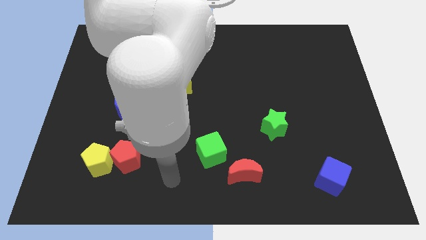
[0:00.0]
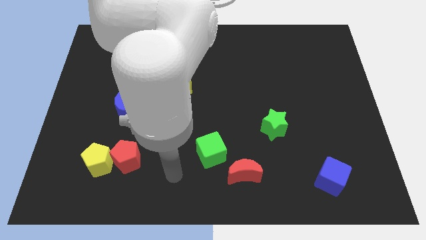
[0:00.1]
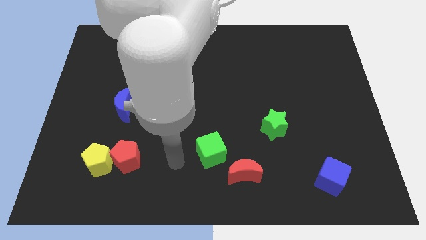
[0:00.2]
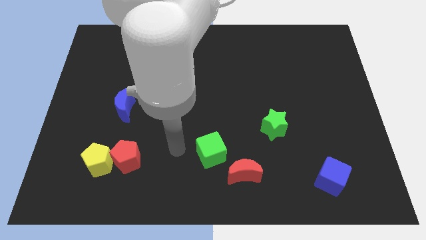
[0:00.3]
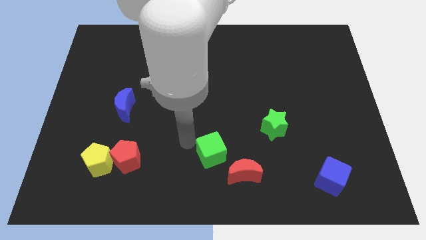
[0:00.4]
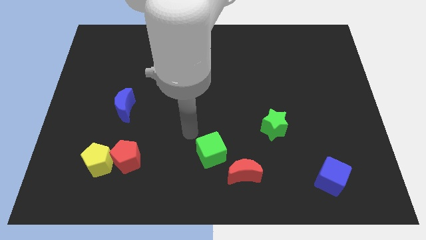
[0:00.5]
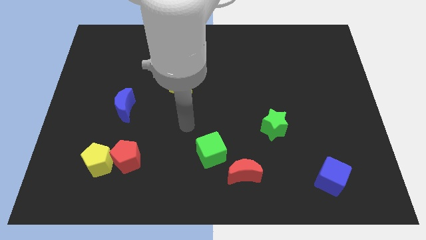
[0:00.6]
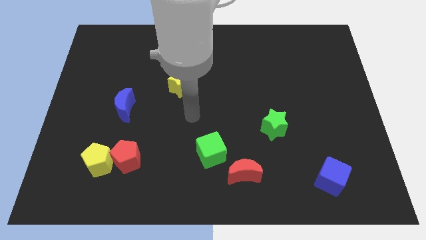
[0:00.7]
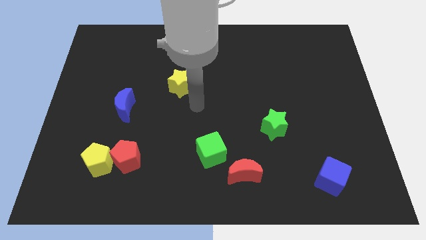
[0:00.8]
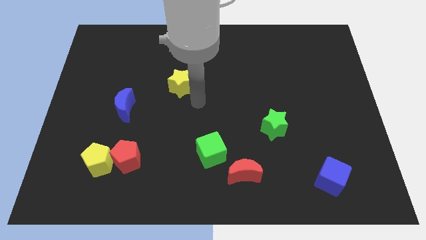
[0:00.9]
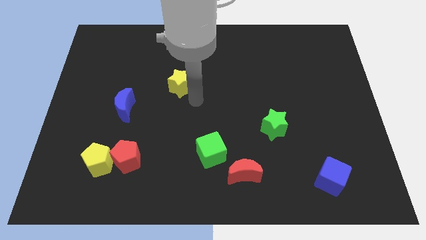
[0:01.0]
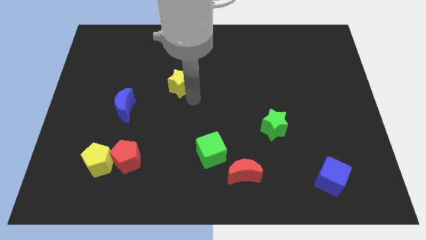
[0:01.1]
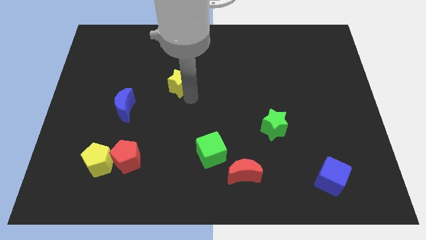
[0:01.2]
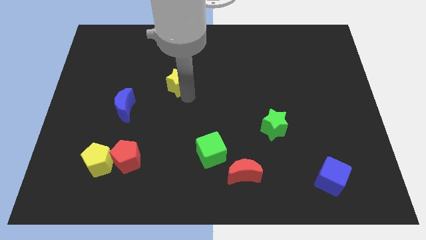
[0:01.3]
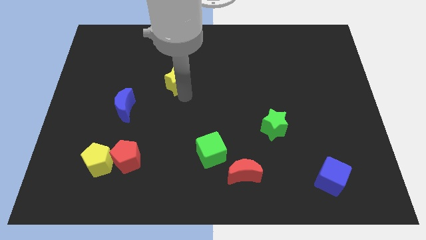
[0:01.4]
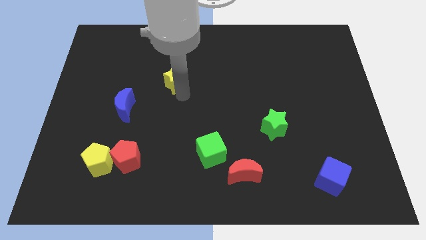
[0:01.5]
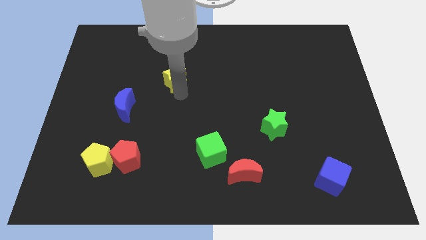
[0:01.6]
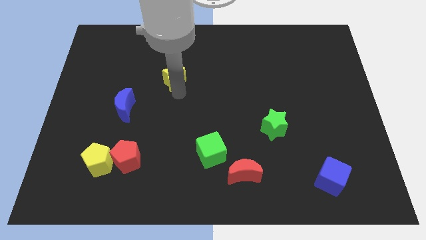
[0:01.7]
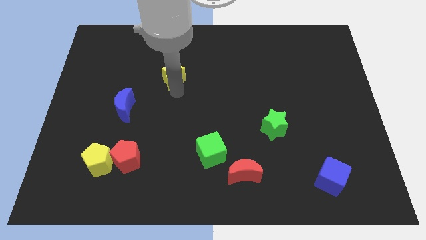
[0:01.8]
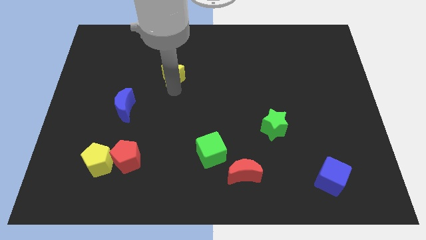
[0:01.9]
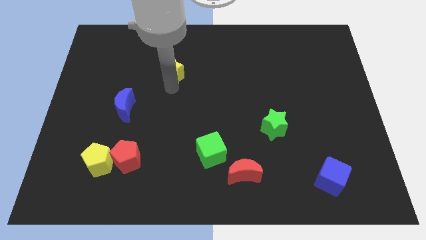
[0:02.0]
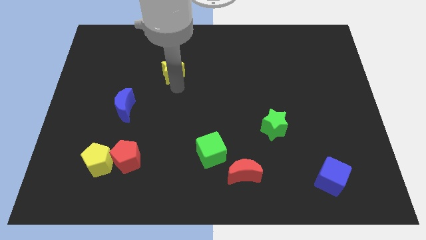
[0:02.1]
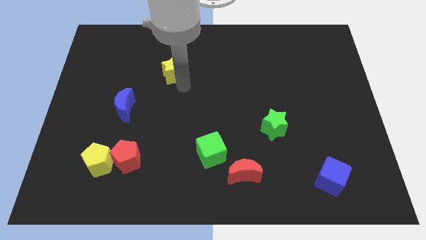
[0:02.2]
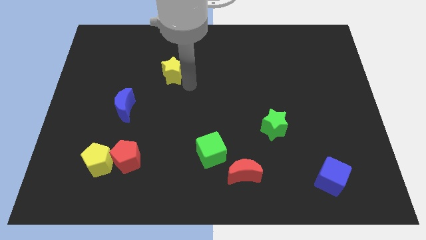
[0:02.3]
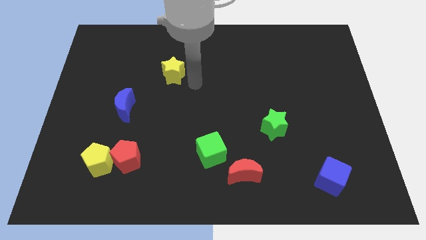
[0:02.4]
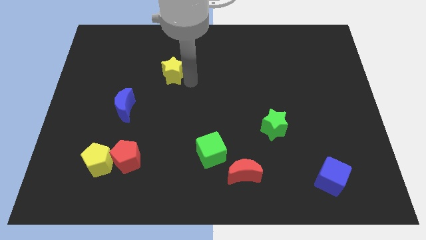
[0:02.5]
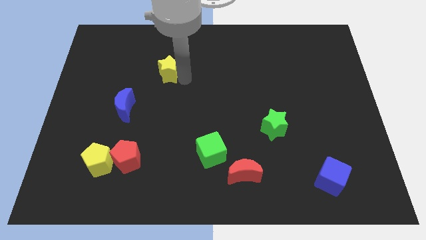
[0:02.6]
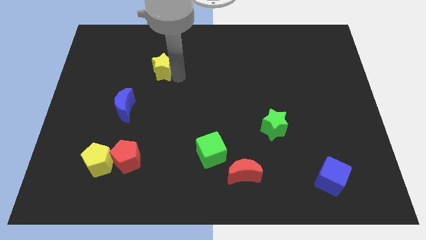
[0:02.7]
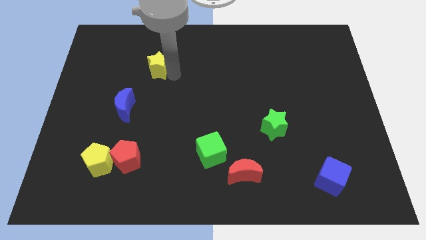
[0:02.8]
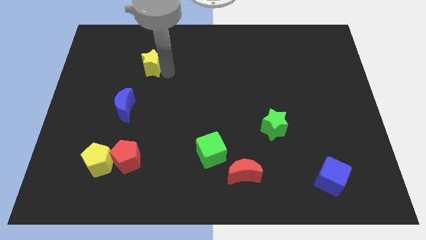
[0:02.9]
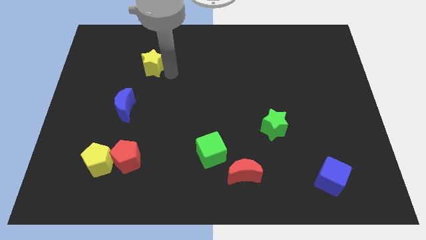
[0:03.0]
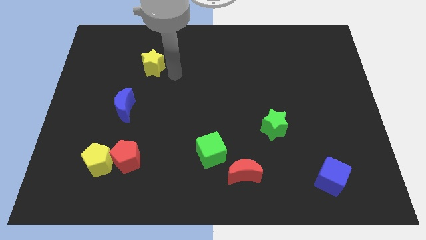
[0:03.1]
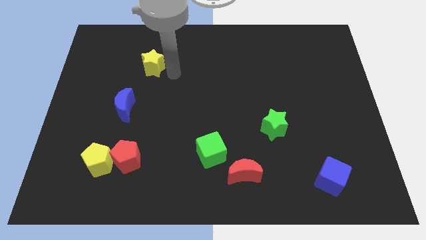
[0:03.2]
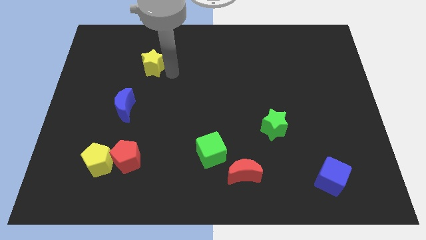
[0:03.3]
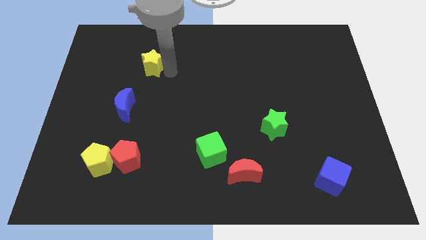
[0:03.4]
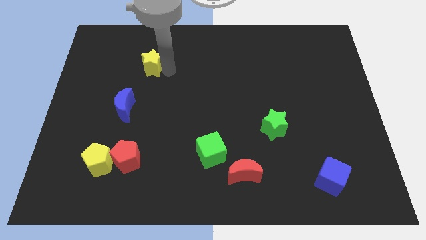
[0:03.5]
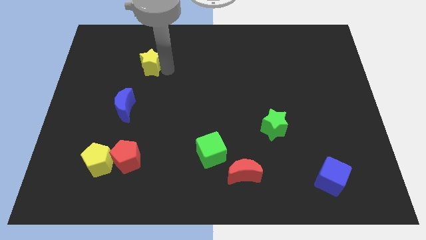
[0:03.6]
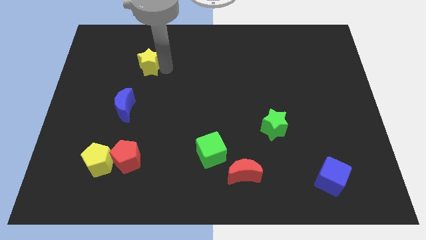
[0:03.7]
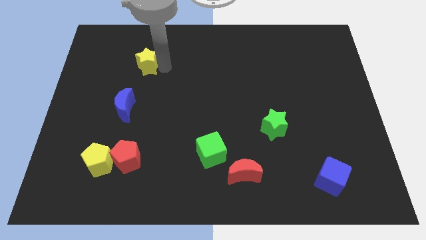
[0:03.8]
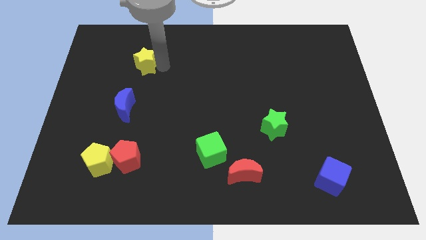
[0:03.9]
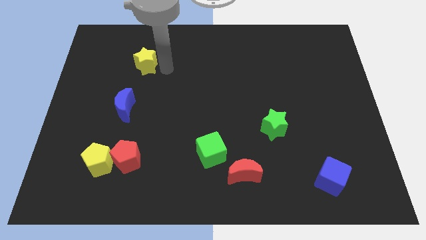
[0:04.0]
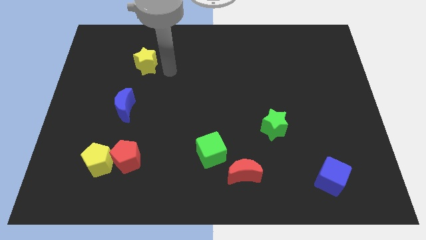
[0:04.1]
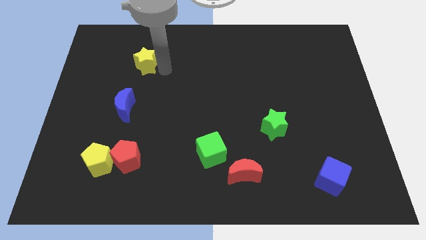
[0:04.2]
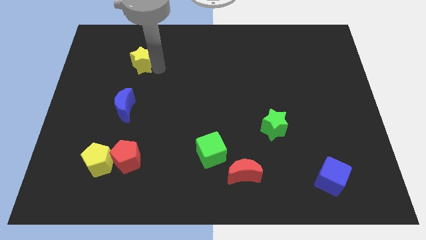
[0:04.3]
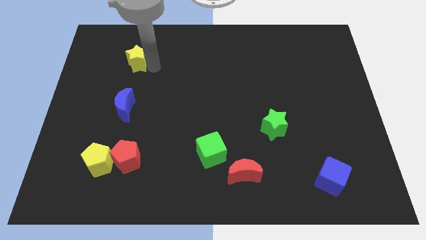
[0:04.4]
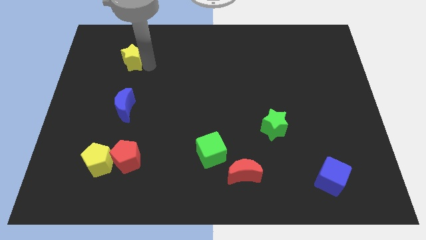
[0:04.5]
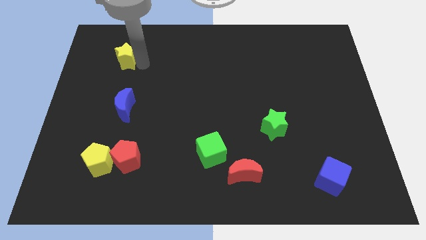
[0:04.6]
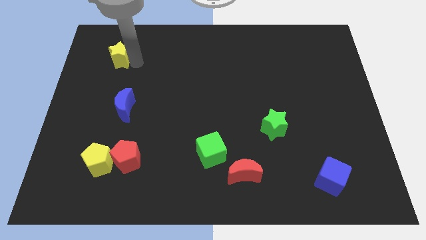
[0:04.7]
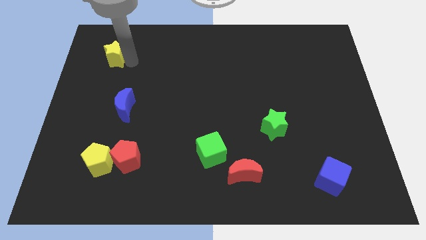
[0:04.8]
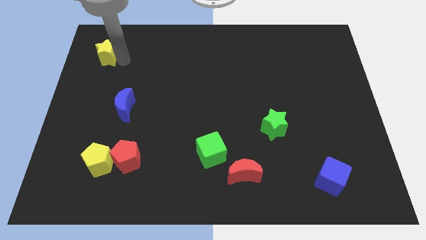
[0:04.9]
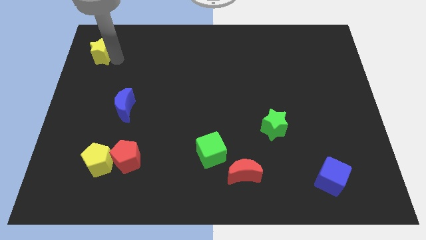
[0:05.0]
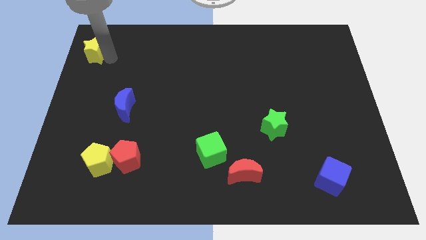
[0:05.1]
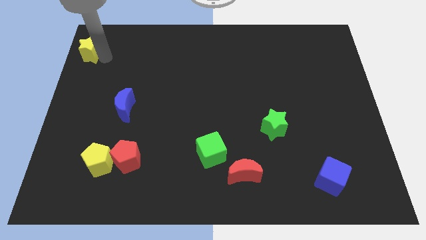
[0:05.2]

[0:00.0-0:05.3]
put the yellow star to the top left of the board
